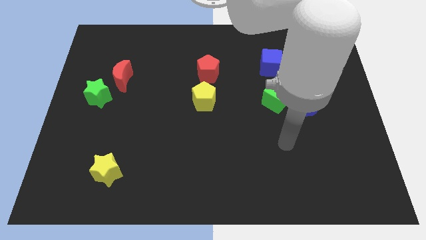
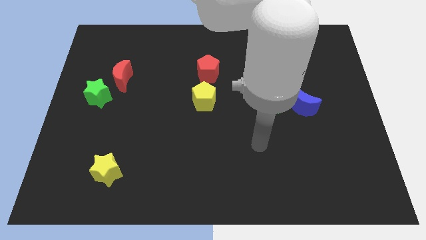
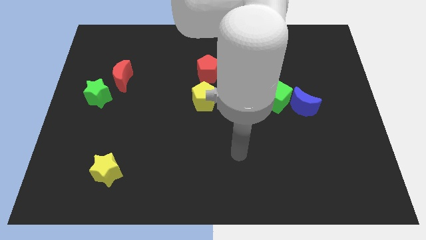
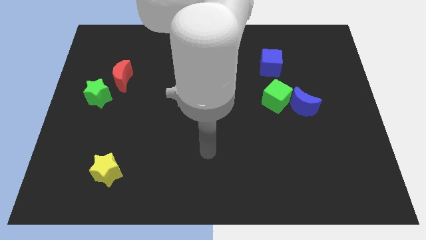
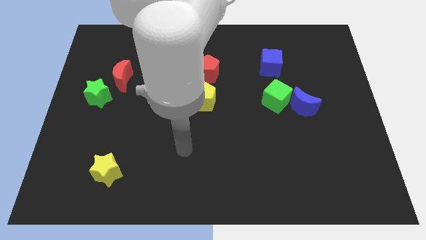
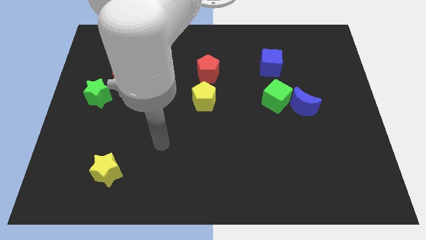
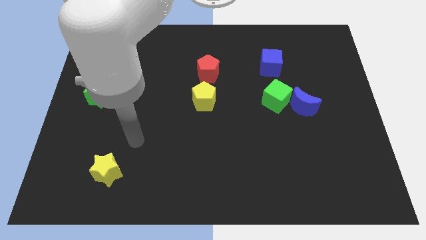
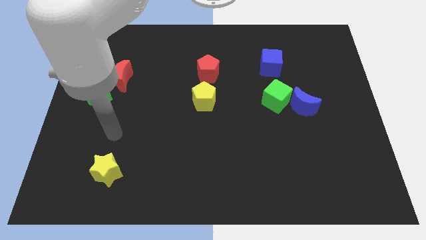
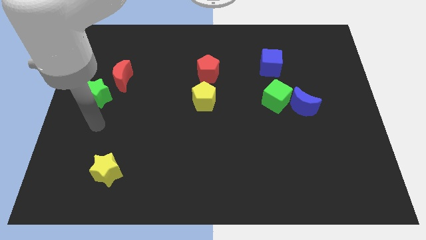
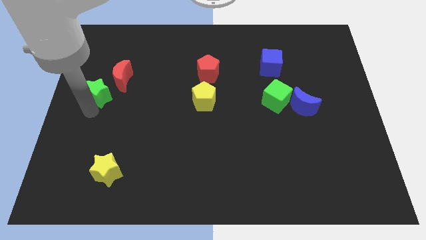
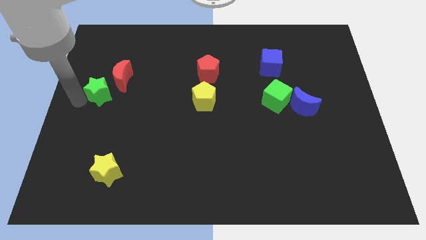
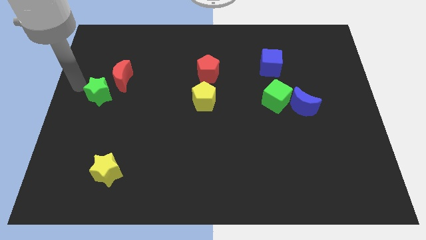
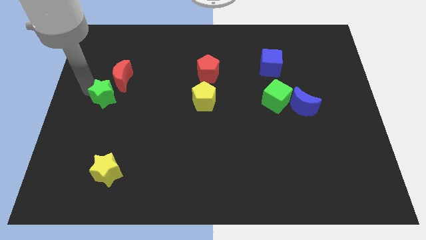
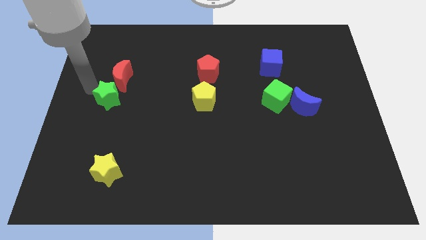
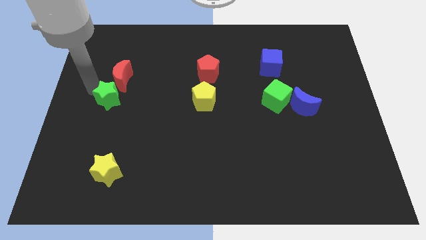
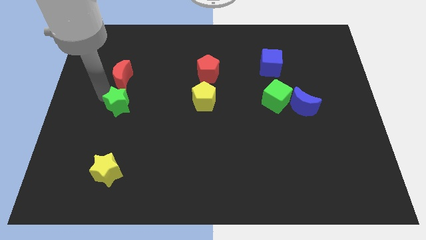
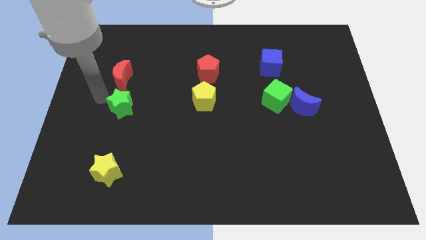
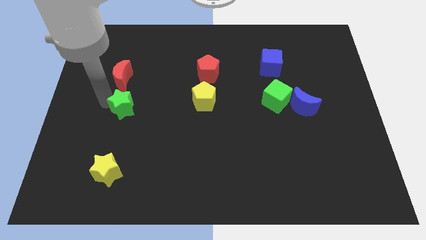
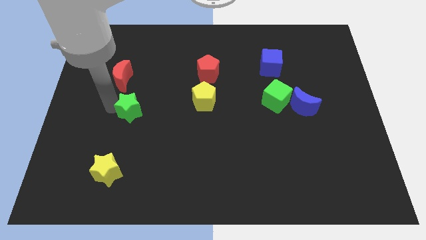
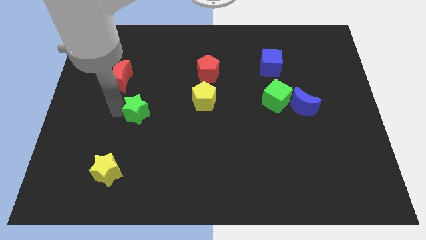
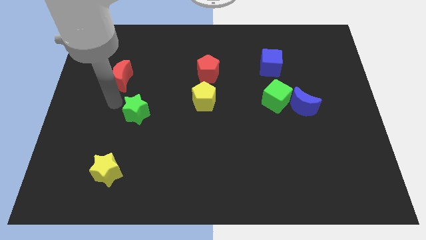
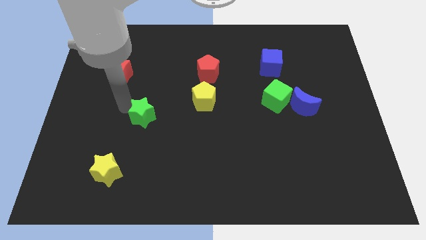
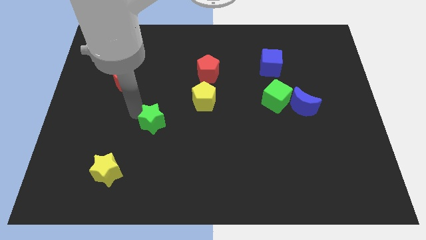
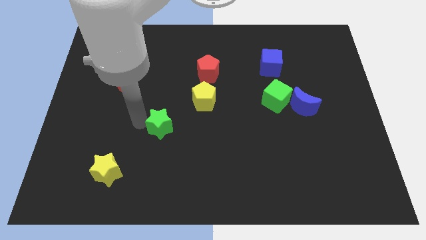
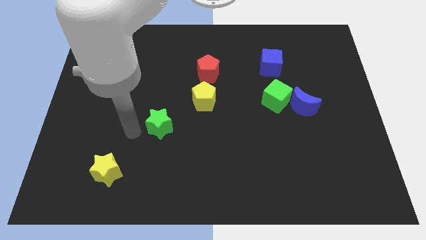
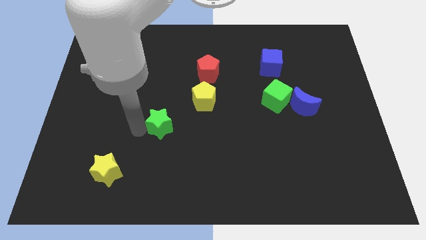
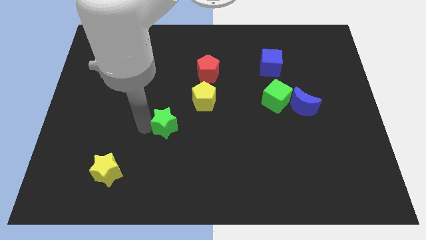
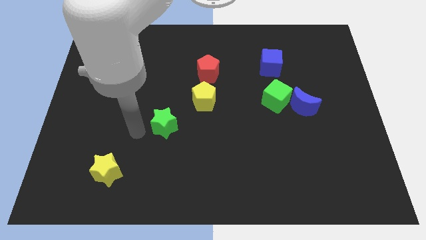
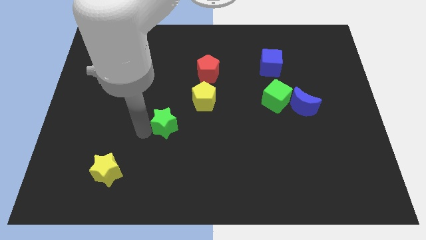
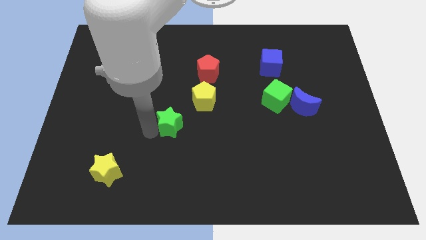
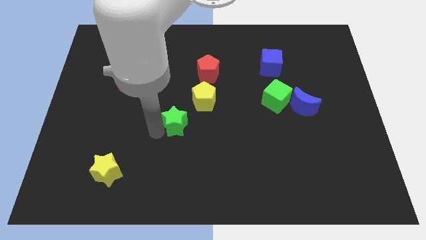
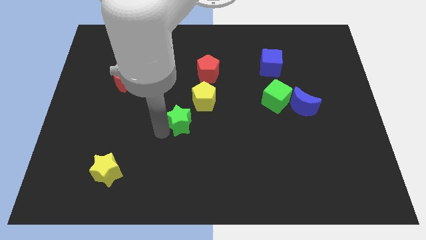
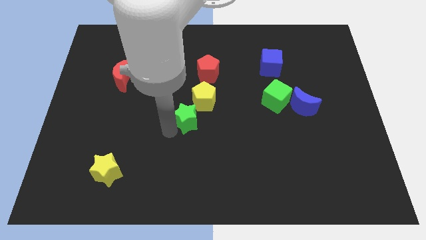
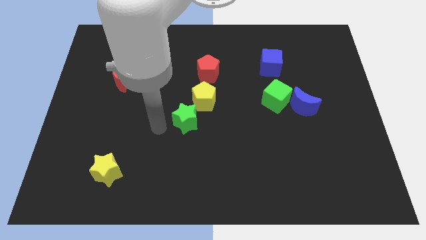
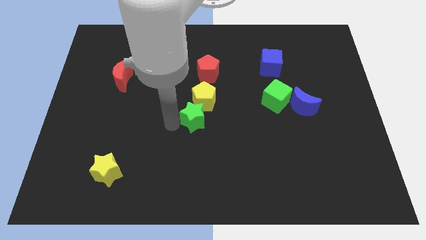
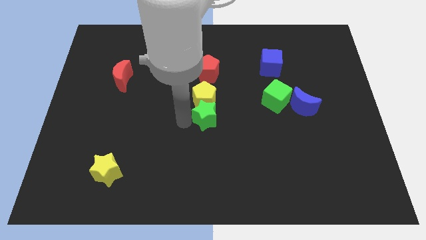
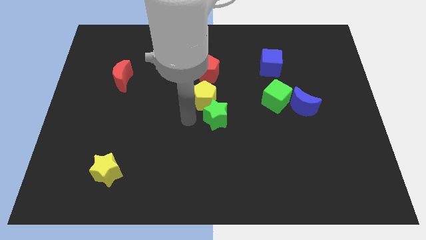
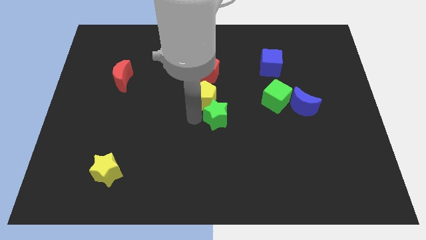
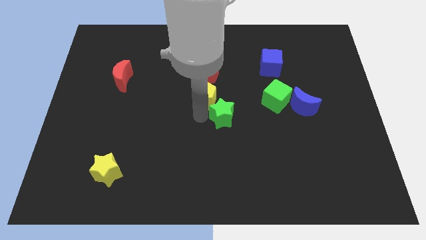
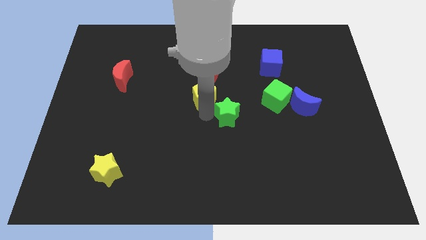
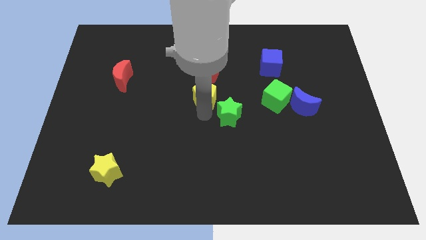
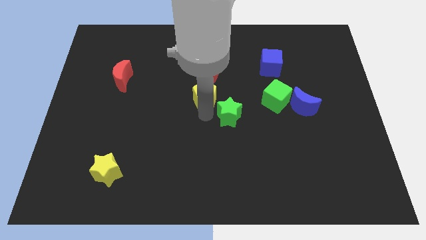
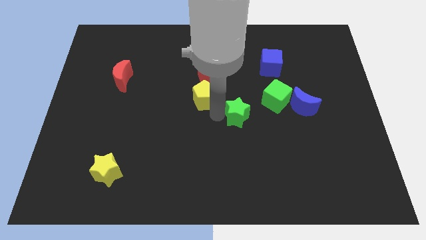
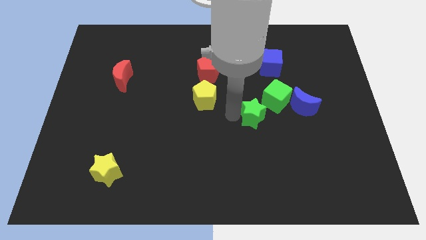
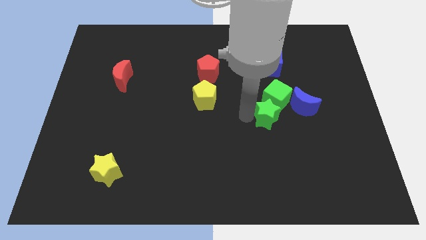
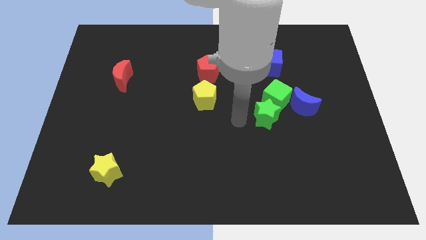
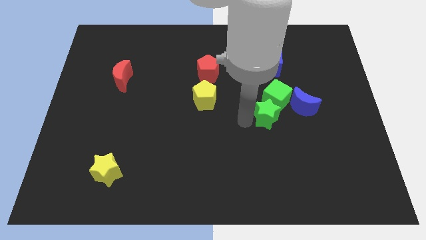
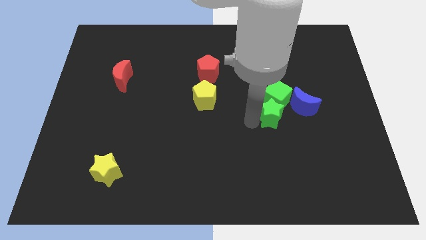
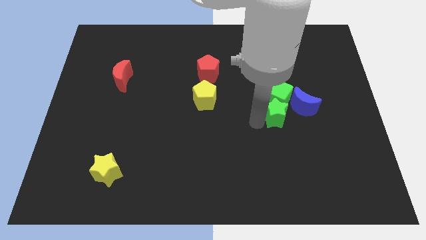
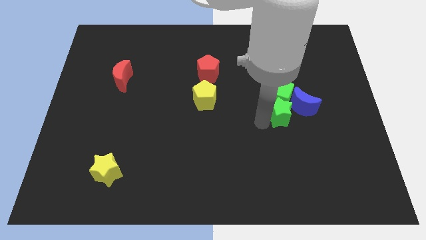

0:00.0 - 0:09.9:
slide the green star close to the blue moon

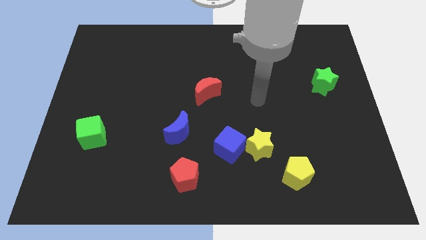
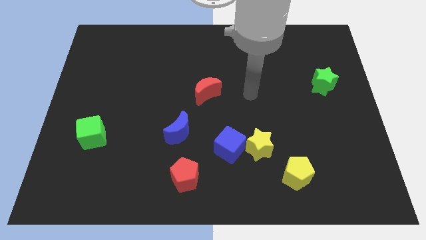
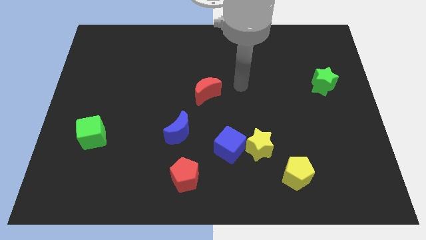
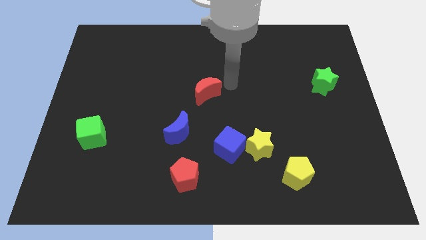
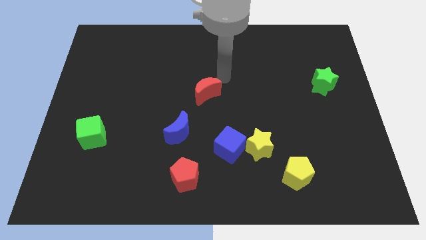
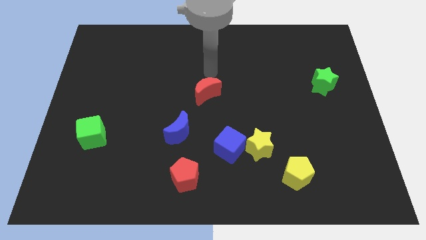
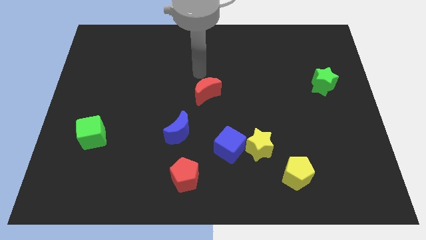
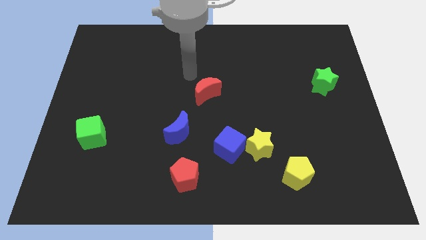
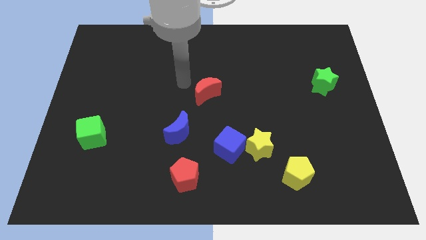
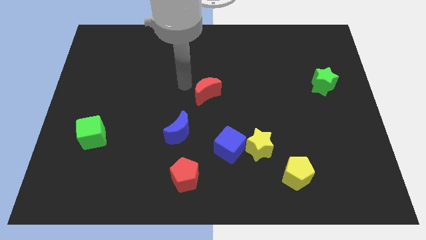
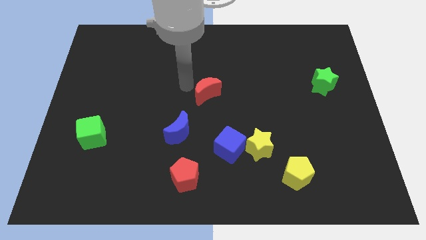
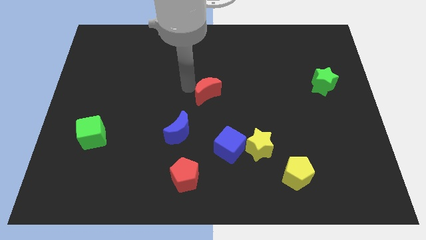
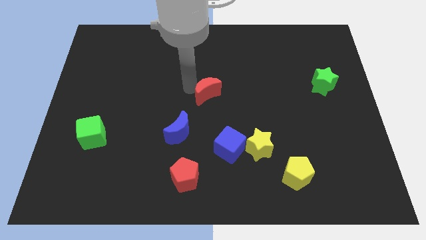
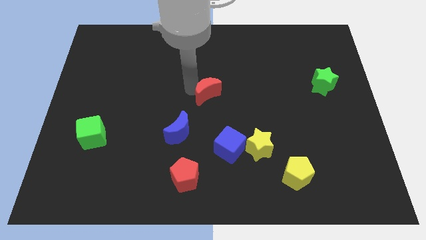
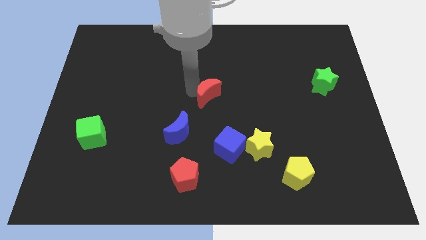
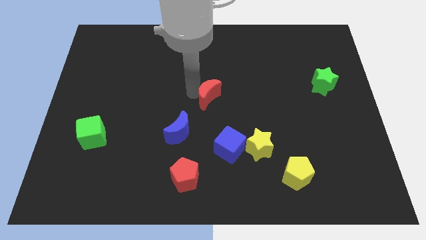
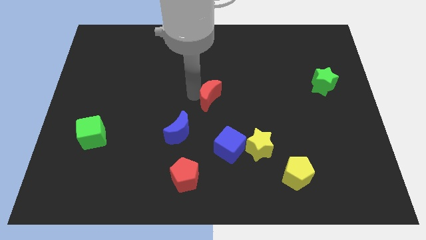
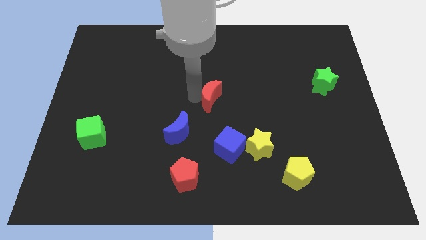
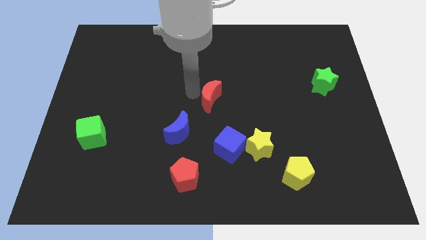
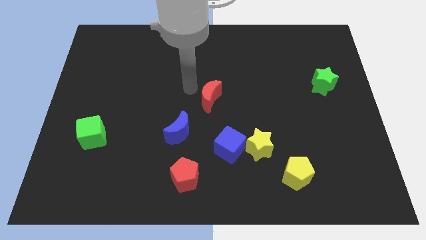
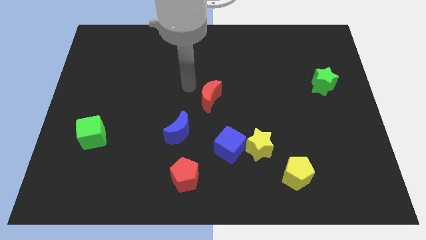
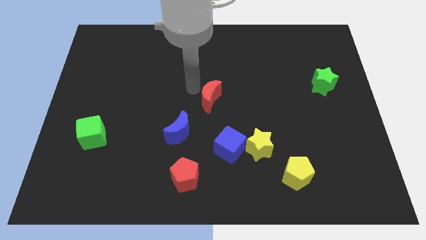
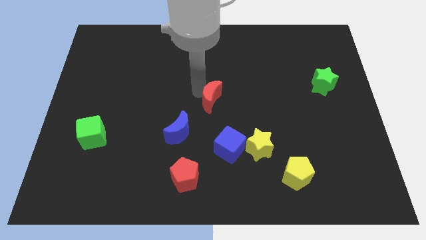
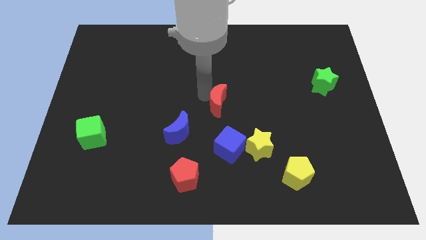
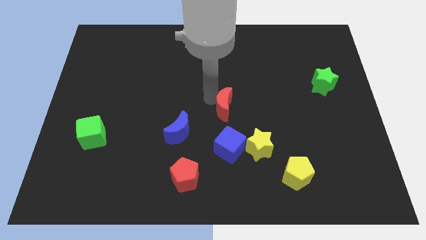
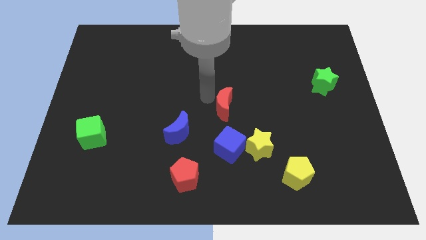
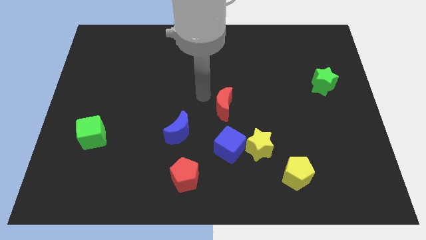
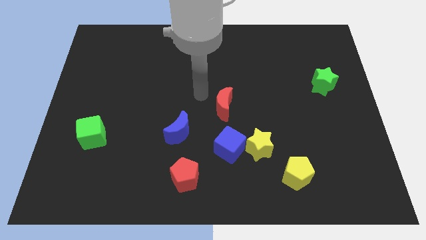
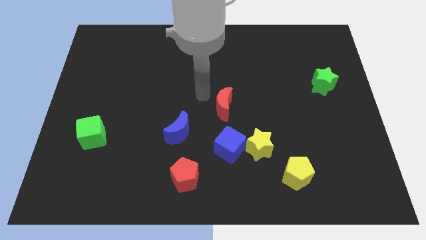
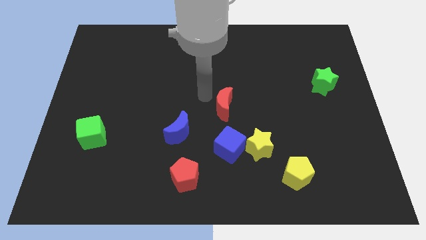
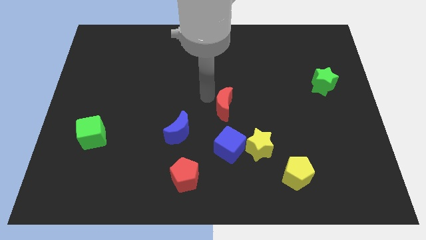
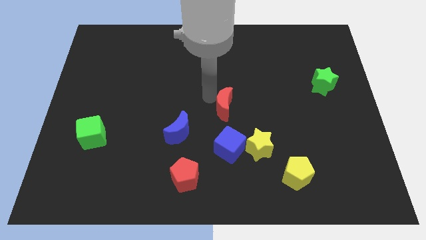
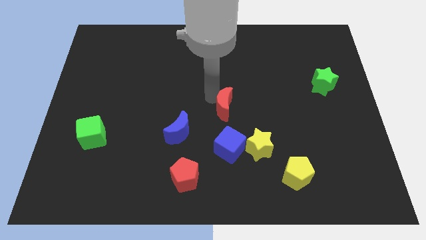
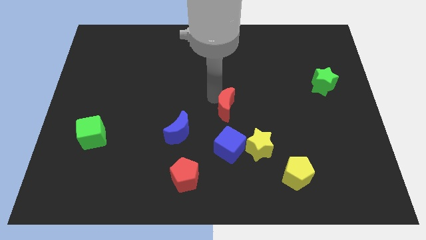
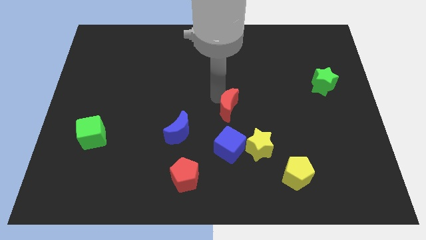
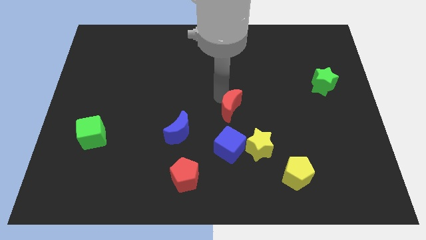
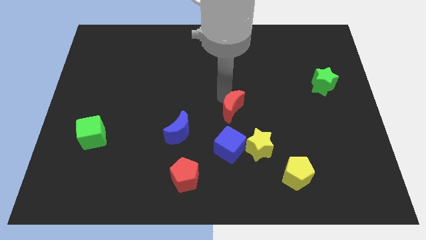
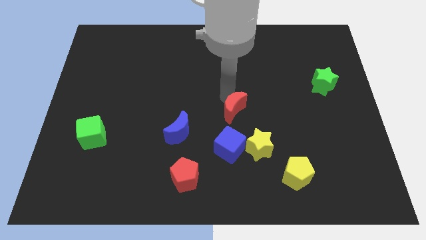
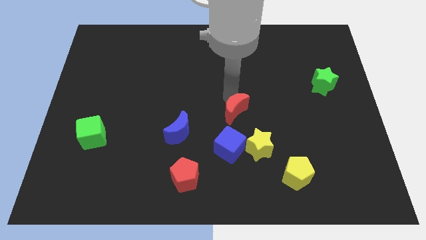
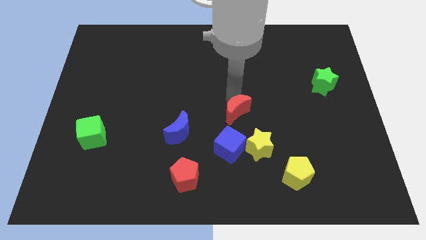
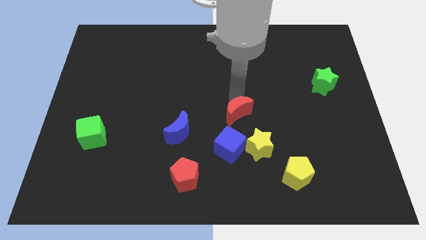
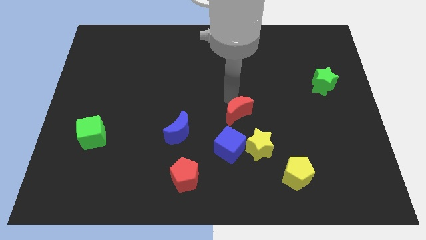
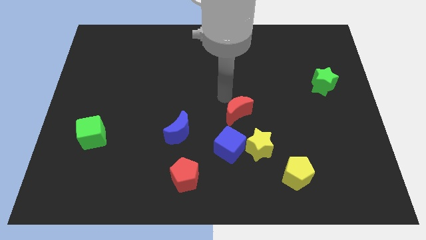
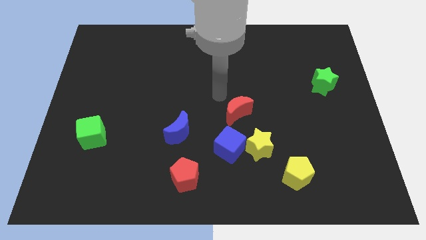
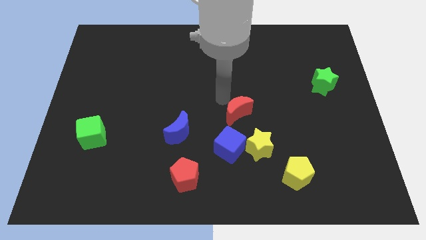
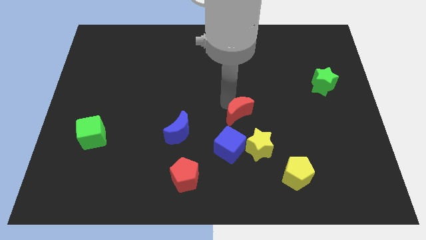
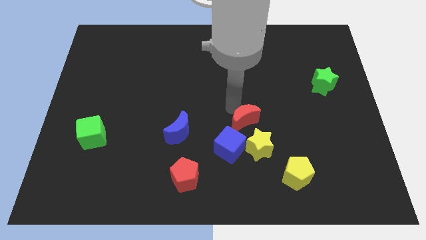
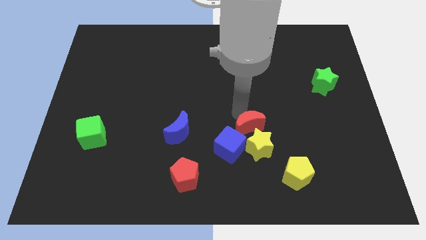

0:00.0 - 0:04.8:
slide the red moon next to the yellow star
